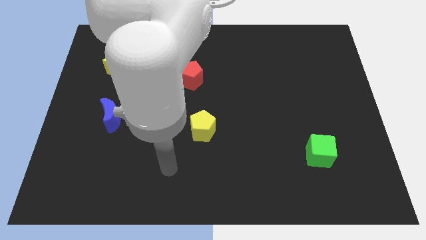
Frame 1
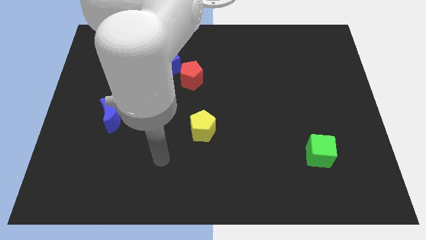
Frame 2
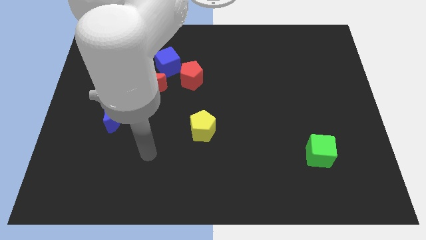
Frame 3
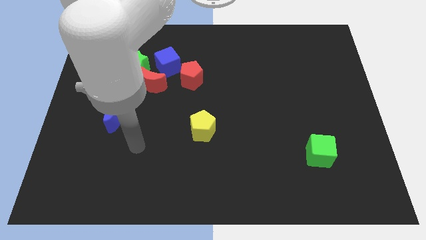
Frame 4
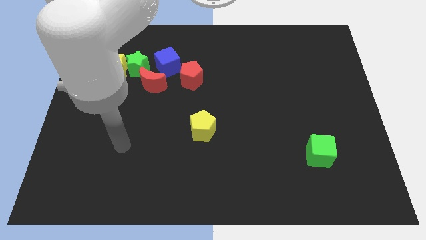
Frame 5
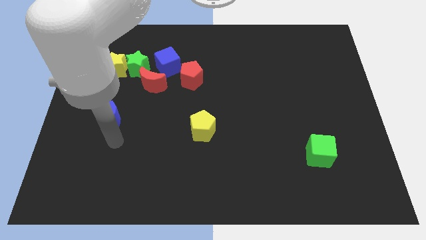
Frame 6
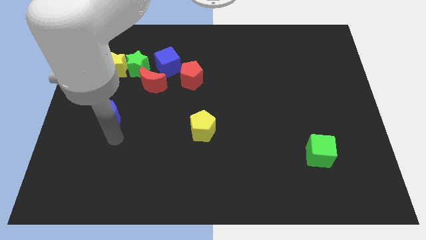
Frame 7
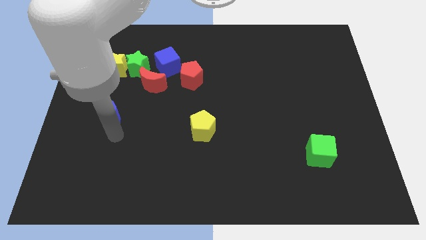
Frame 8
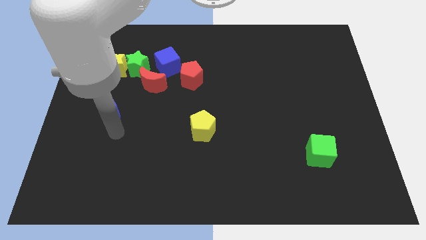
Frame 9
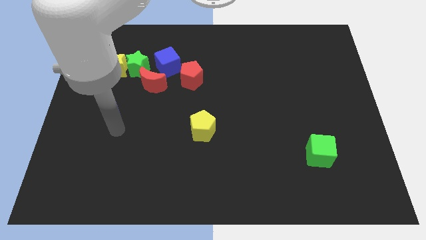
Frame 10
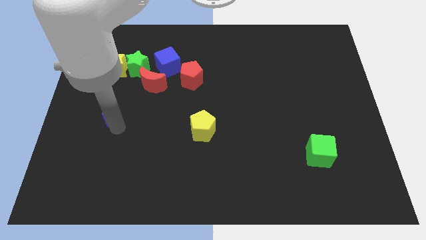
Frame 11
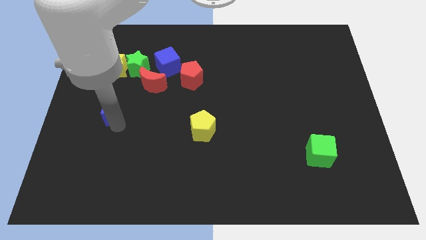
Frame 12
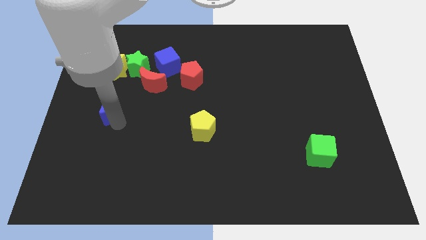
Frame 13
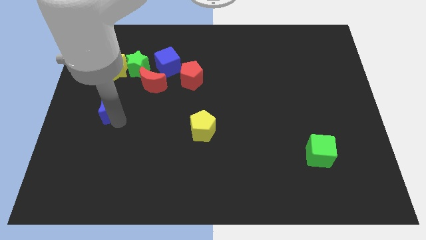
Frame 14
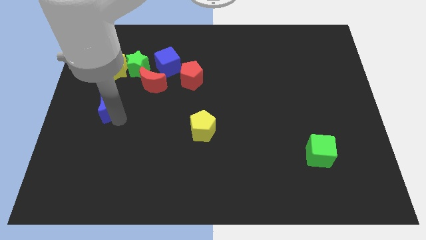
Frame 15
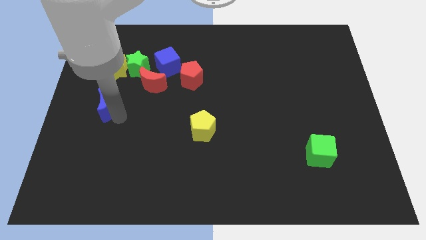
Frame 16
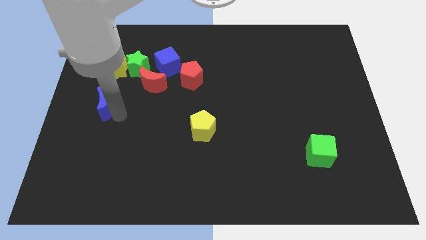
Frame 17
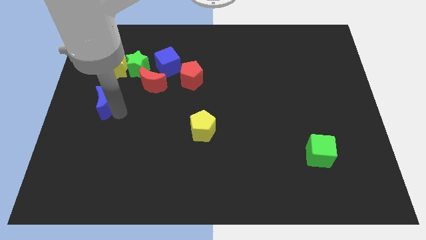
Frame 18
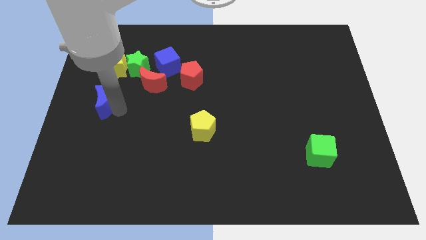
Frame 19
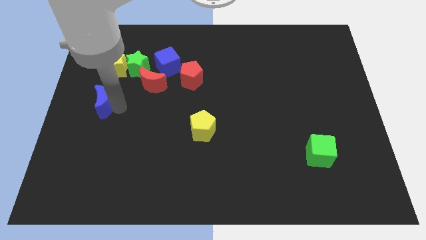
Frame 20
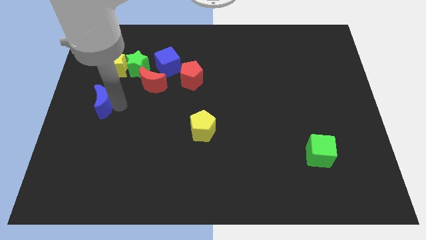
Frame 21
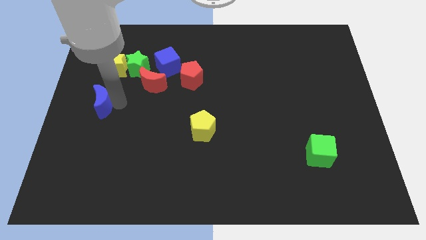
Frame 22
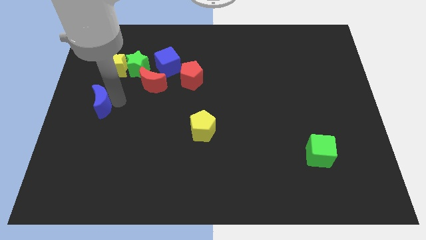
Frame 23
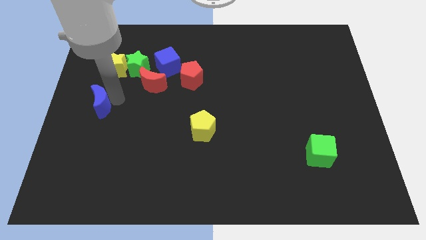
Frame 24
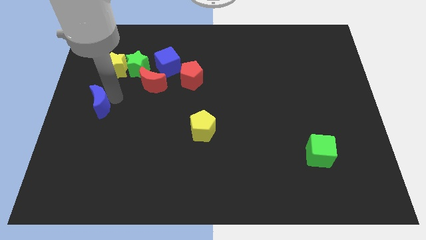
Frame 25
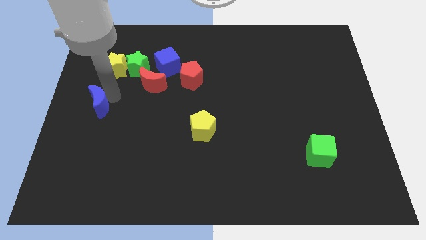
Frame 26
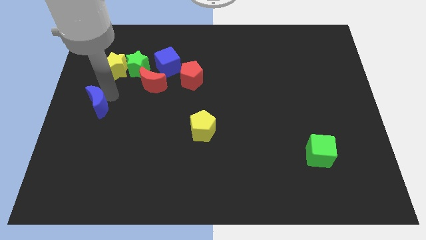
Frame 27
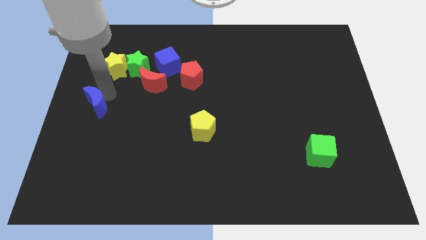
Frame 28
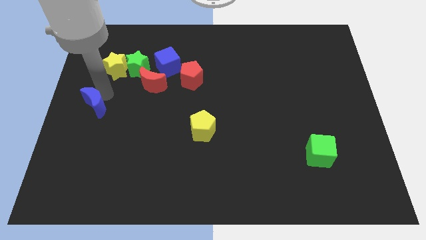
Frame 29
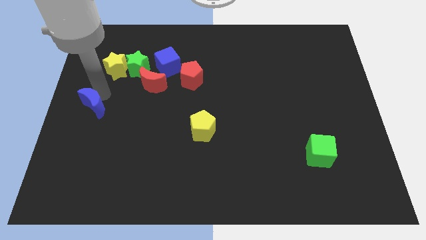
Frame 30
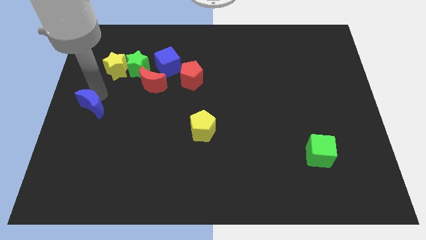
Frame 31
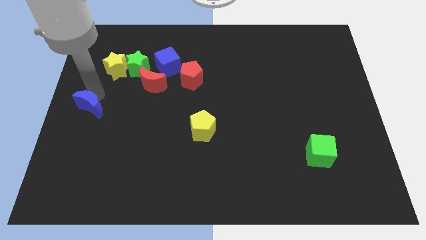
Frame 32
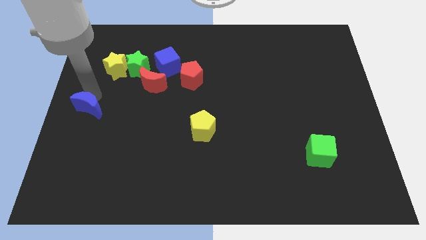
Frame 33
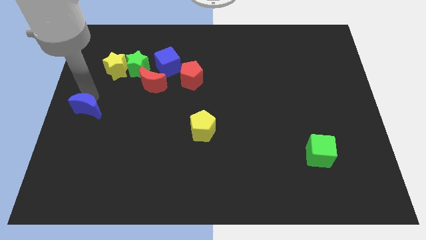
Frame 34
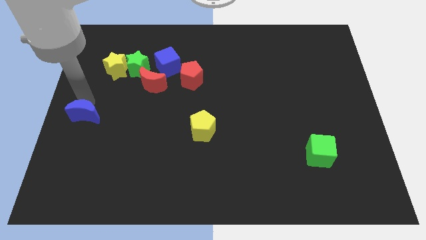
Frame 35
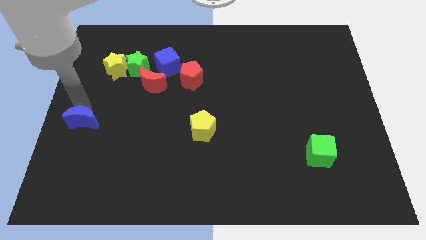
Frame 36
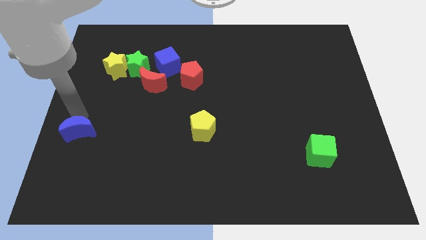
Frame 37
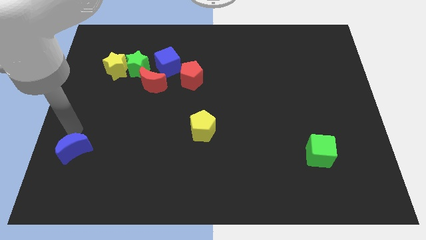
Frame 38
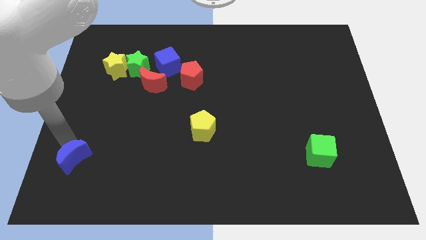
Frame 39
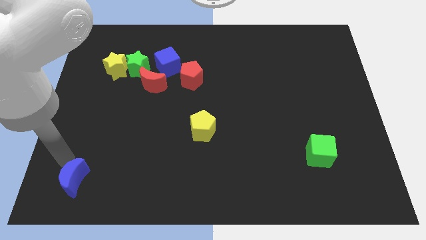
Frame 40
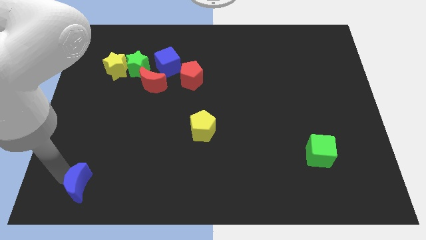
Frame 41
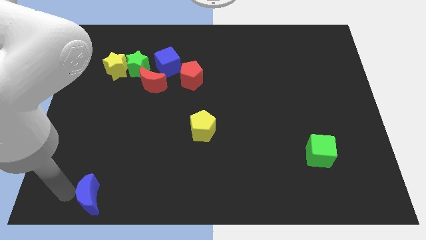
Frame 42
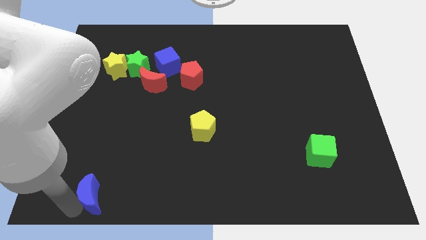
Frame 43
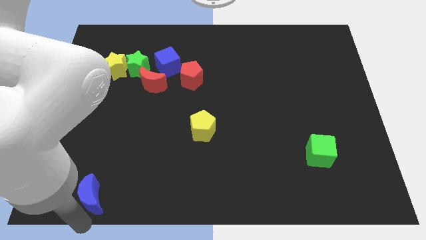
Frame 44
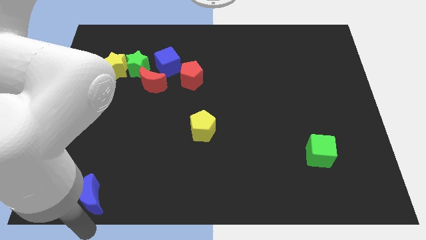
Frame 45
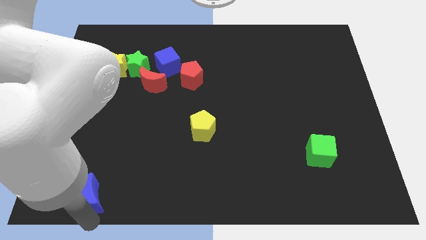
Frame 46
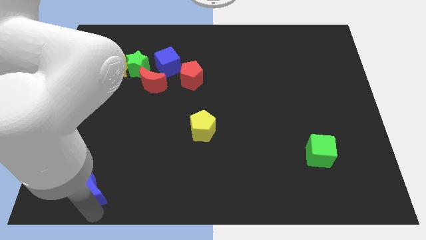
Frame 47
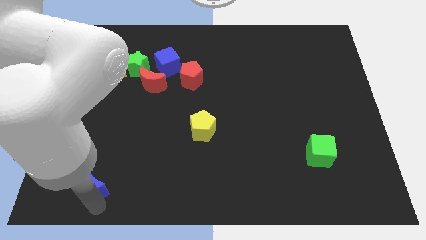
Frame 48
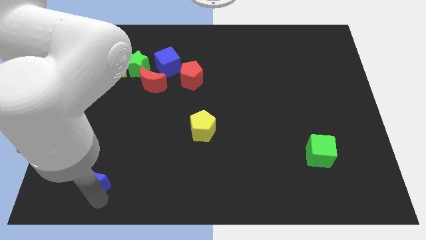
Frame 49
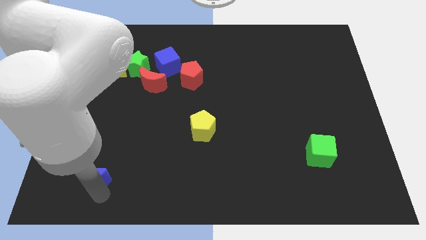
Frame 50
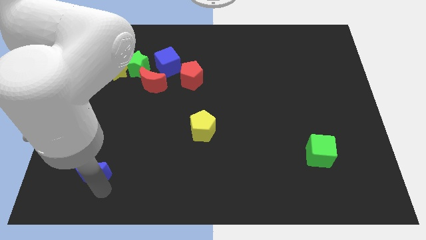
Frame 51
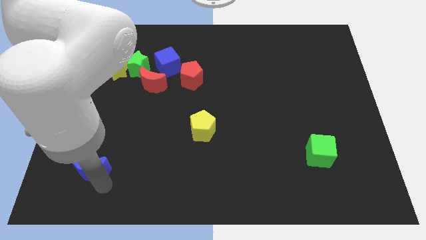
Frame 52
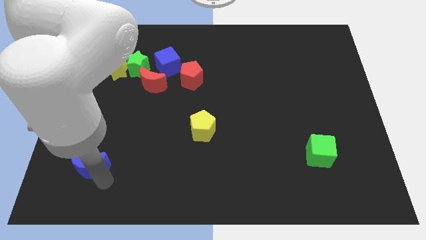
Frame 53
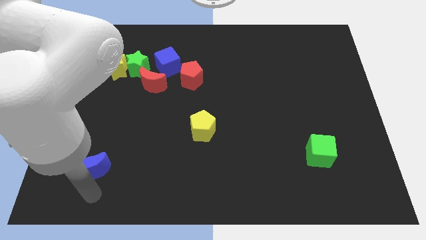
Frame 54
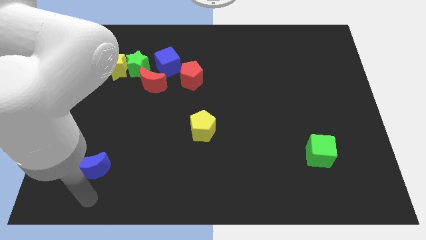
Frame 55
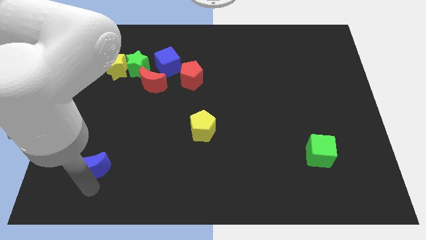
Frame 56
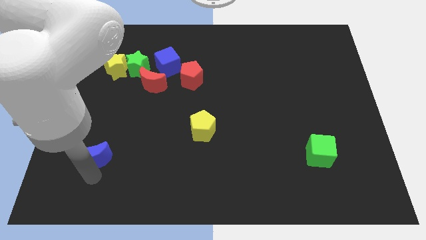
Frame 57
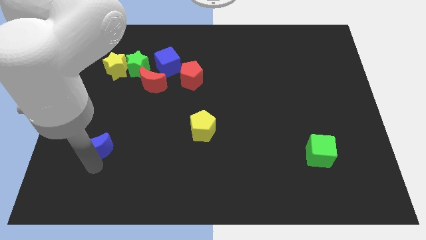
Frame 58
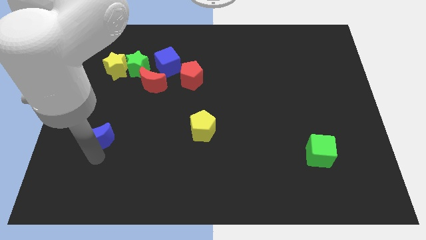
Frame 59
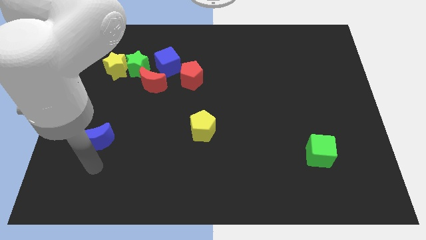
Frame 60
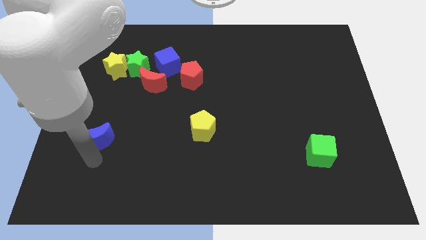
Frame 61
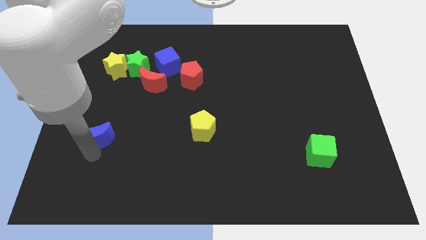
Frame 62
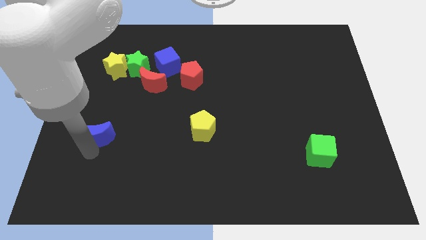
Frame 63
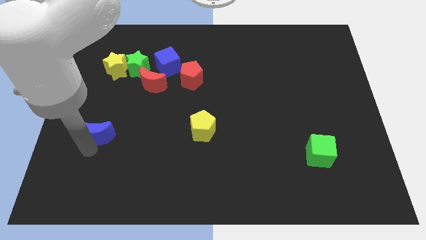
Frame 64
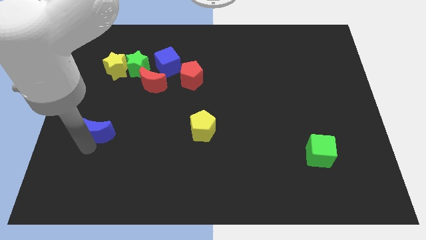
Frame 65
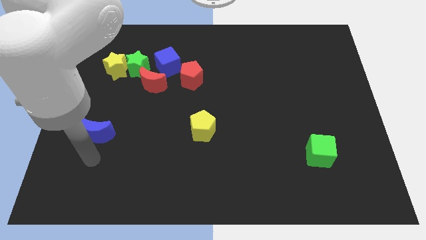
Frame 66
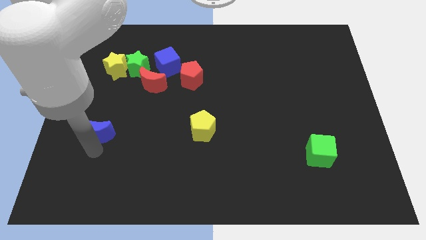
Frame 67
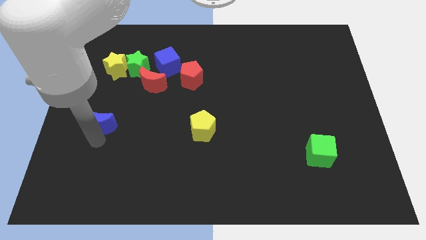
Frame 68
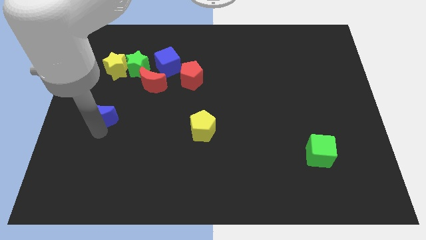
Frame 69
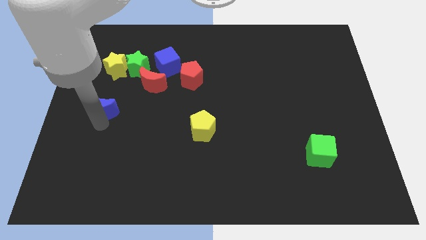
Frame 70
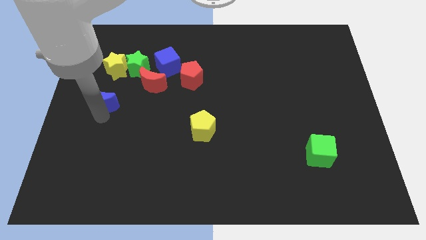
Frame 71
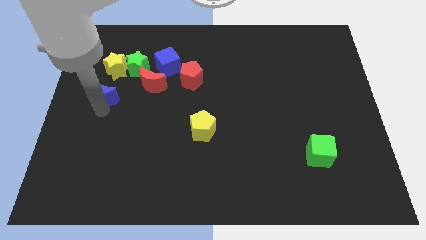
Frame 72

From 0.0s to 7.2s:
move the blue moon to the left of the red moon
